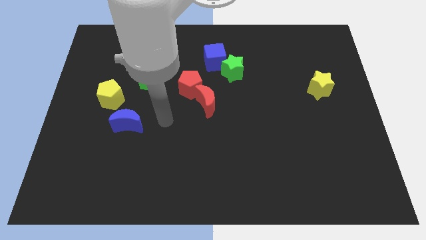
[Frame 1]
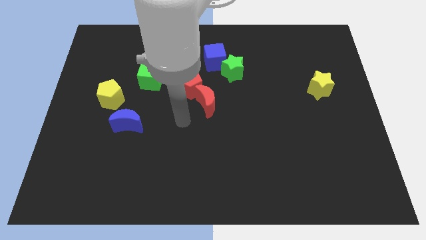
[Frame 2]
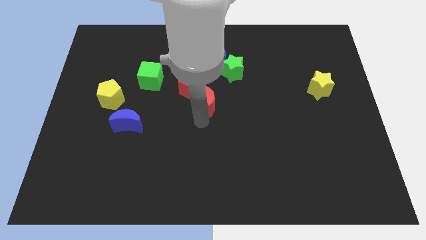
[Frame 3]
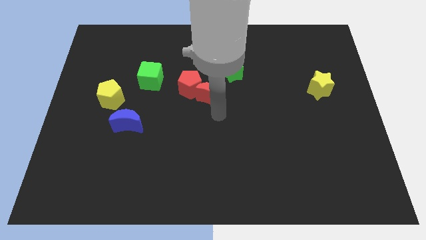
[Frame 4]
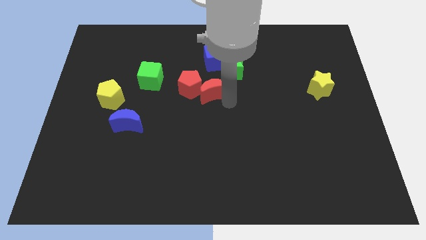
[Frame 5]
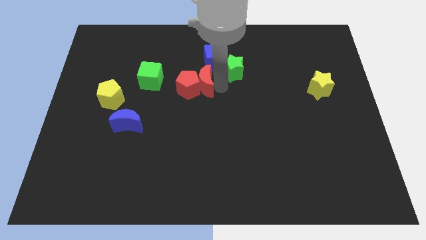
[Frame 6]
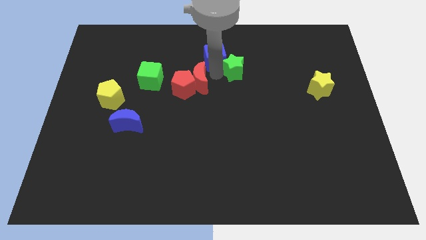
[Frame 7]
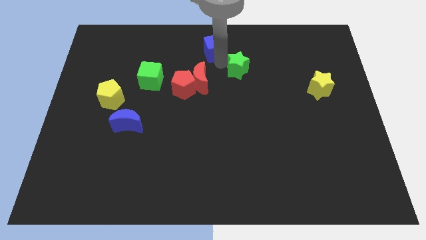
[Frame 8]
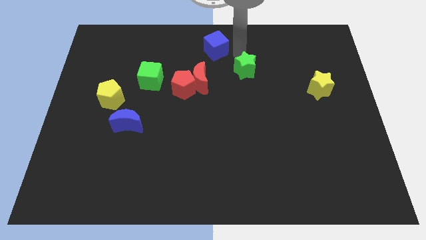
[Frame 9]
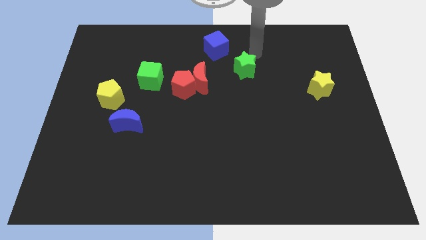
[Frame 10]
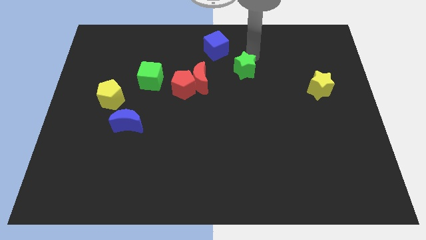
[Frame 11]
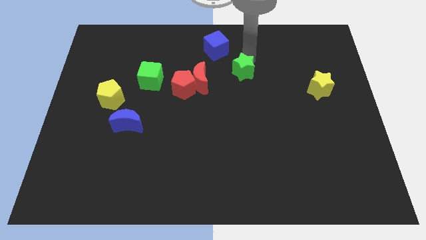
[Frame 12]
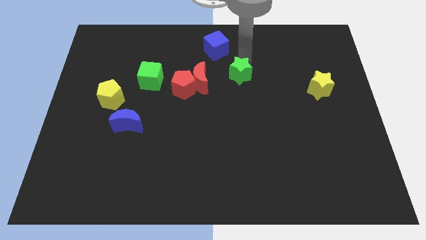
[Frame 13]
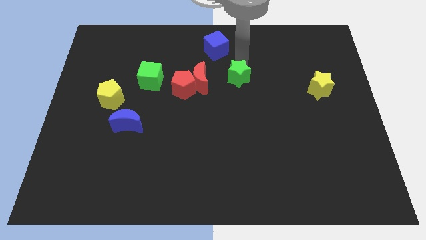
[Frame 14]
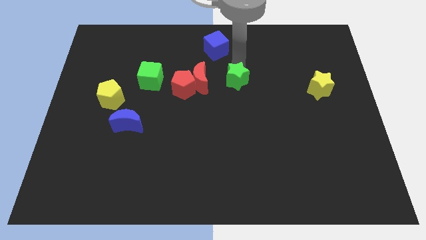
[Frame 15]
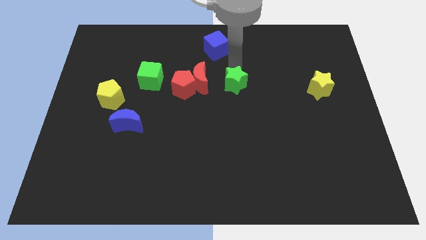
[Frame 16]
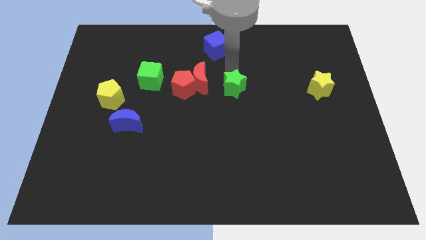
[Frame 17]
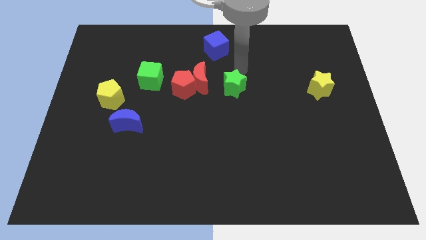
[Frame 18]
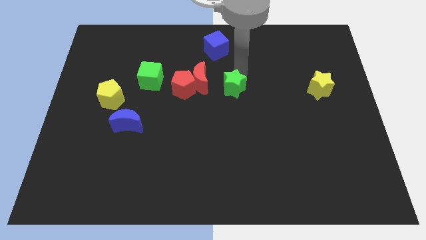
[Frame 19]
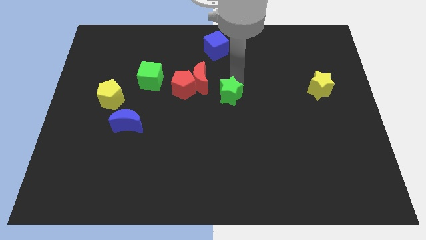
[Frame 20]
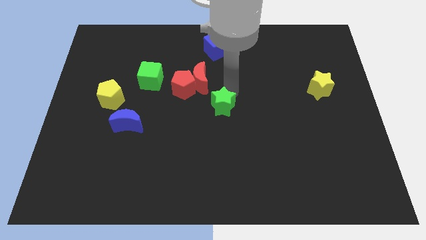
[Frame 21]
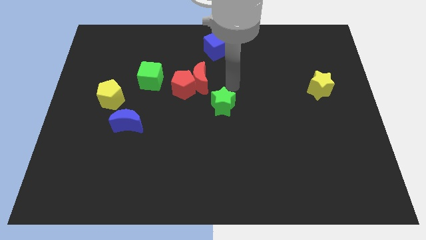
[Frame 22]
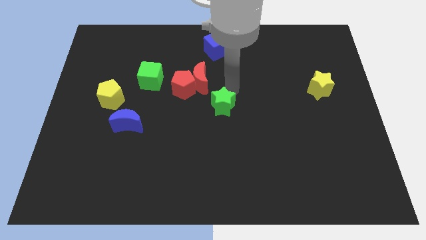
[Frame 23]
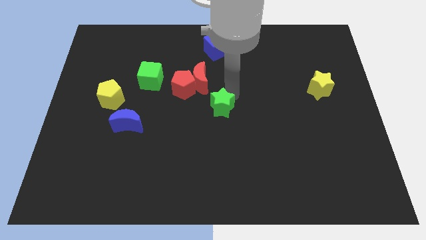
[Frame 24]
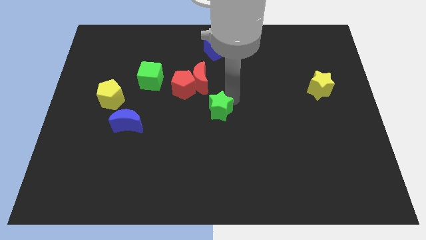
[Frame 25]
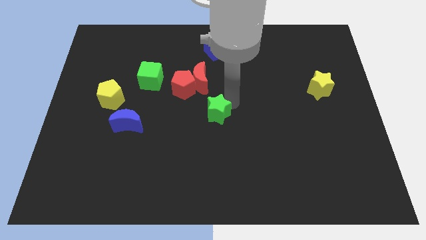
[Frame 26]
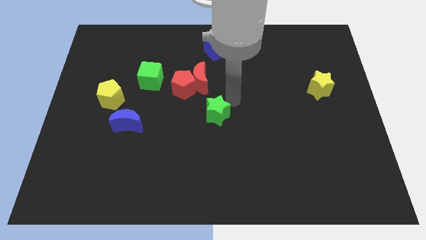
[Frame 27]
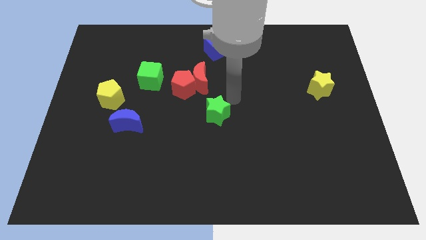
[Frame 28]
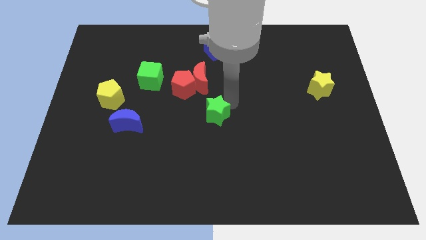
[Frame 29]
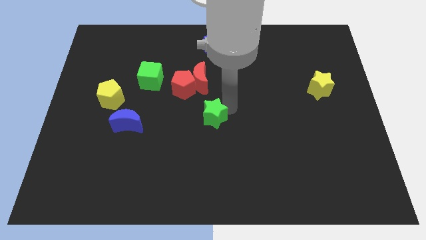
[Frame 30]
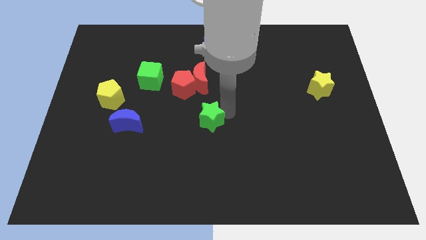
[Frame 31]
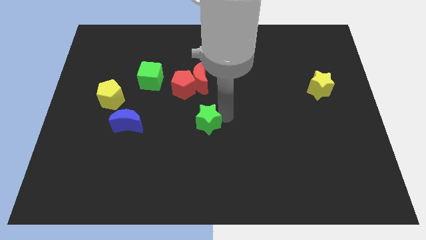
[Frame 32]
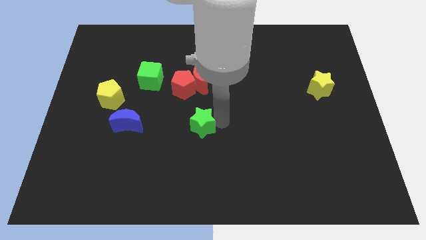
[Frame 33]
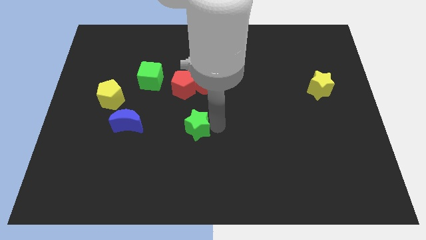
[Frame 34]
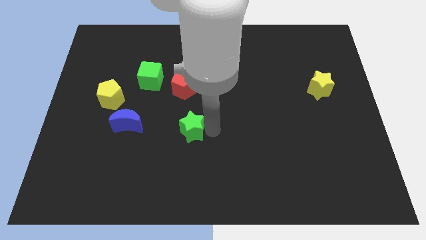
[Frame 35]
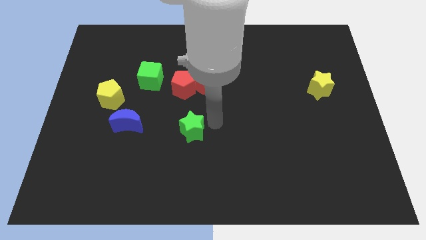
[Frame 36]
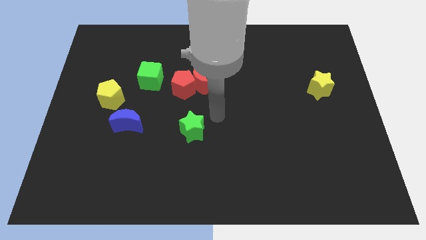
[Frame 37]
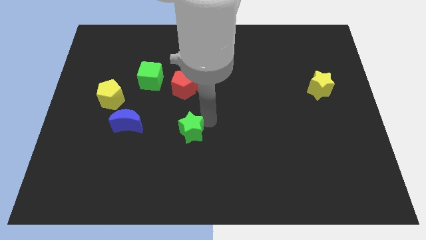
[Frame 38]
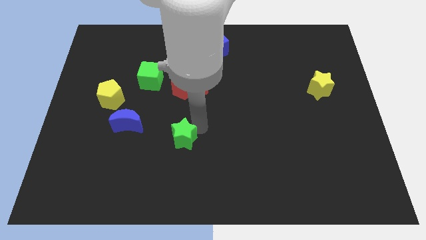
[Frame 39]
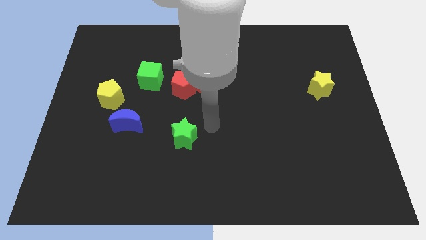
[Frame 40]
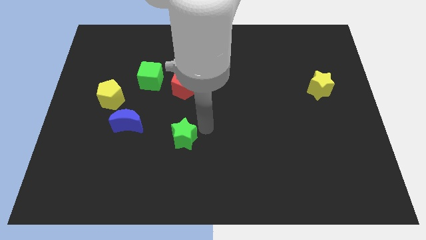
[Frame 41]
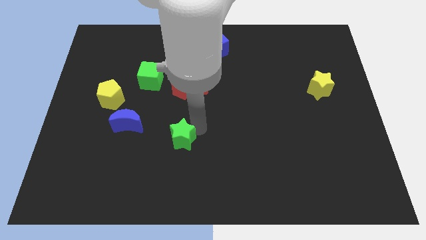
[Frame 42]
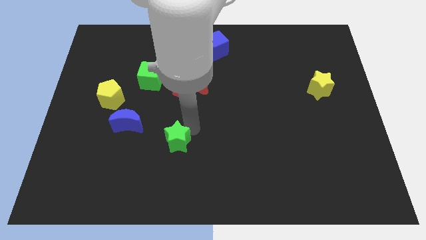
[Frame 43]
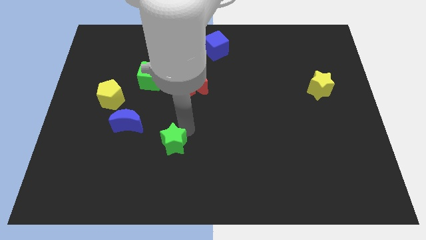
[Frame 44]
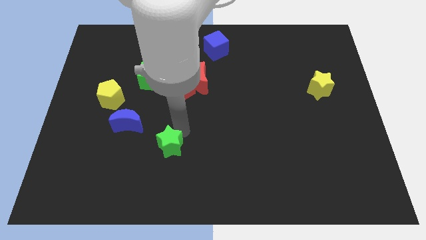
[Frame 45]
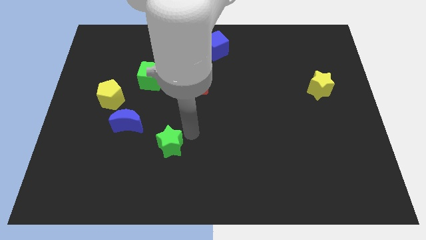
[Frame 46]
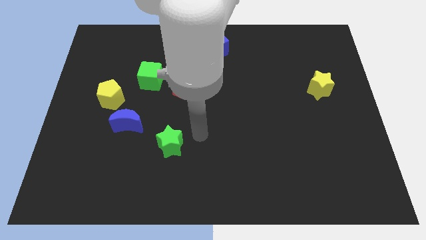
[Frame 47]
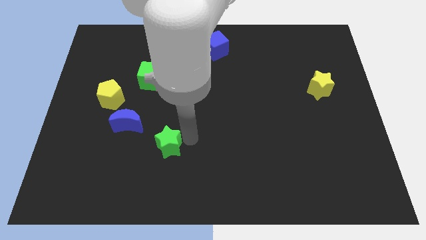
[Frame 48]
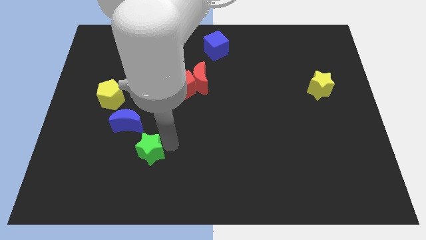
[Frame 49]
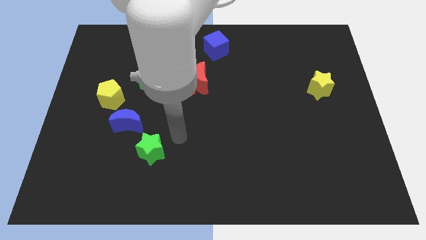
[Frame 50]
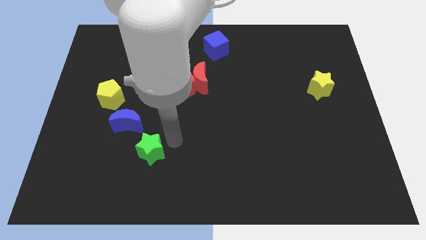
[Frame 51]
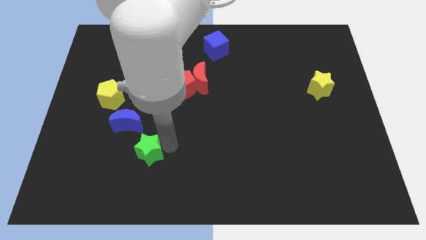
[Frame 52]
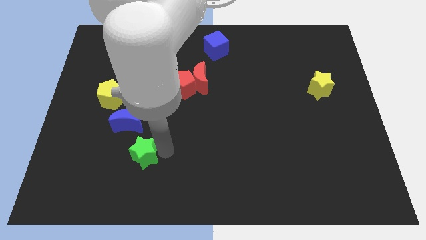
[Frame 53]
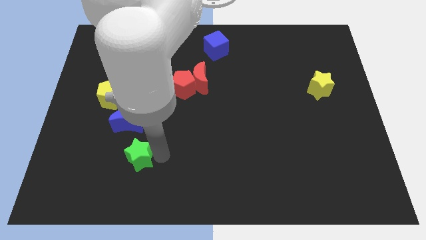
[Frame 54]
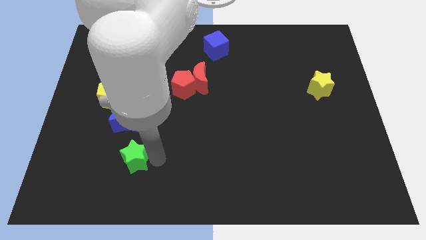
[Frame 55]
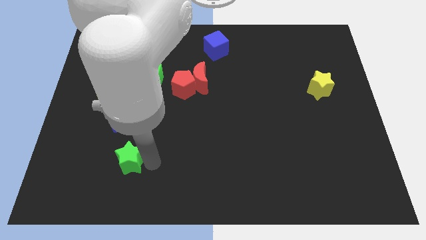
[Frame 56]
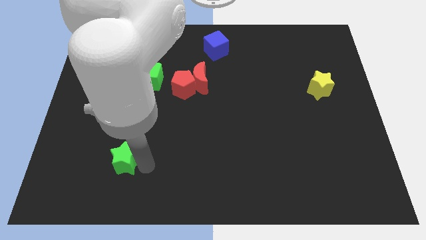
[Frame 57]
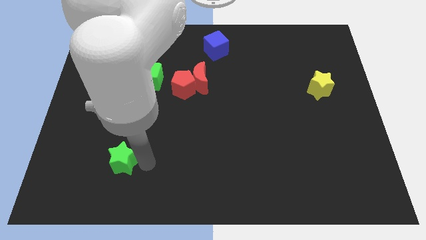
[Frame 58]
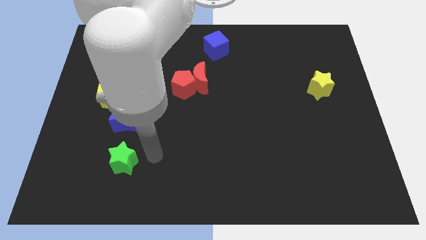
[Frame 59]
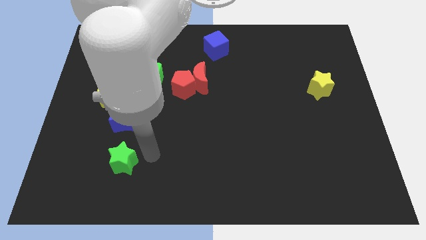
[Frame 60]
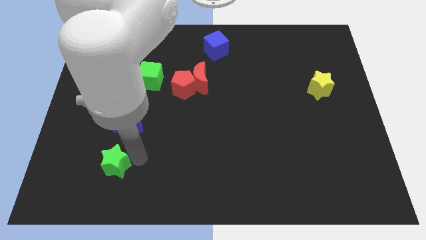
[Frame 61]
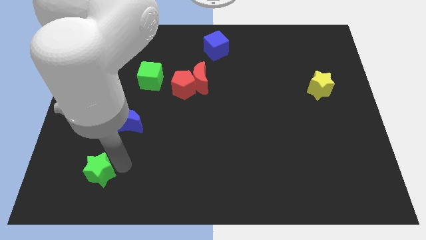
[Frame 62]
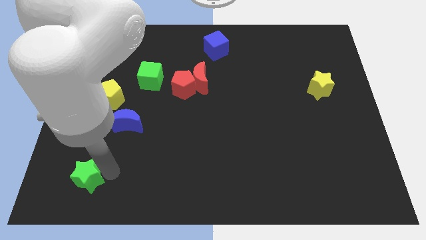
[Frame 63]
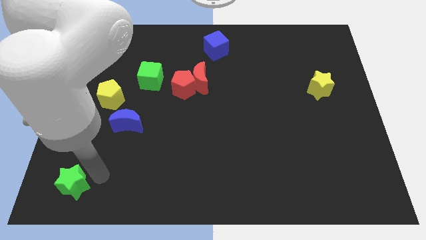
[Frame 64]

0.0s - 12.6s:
push the green star to the lower left corner
